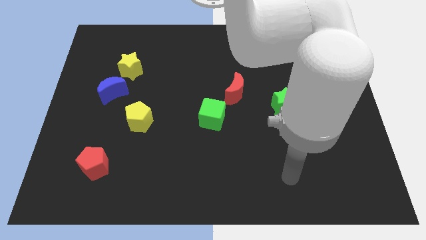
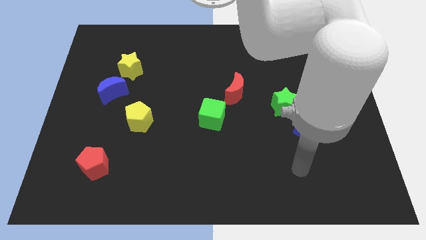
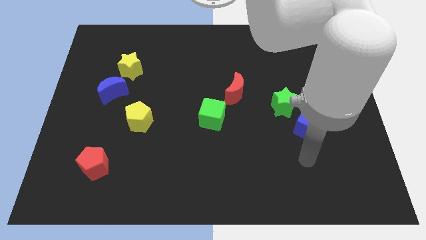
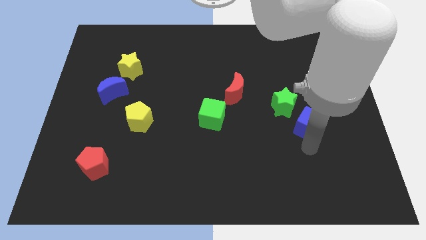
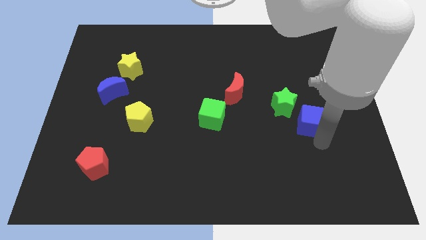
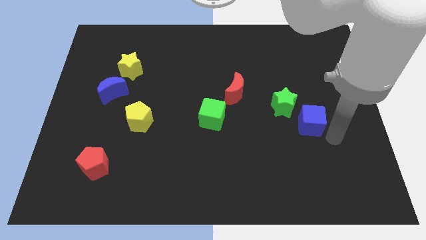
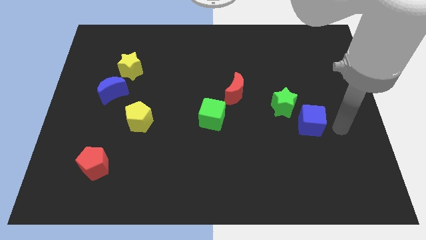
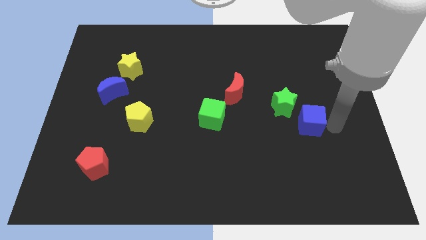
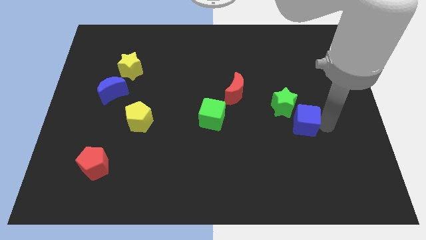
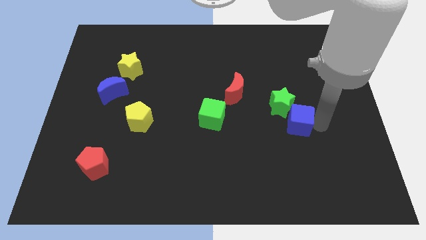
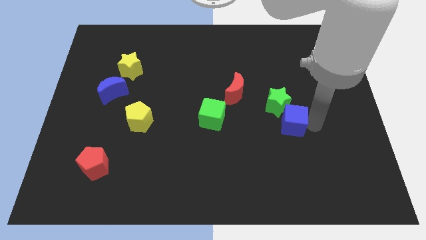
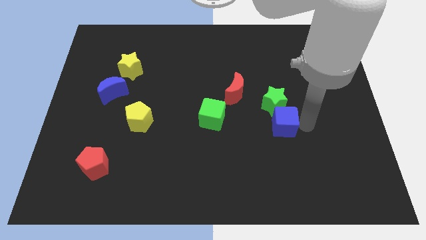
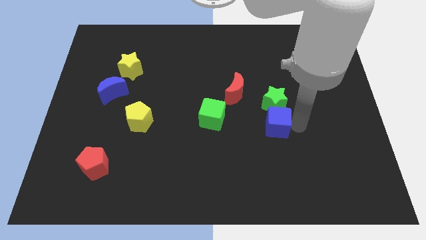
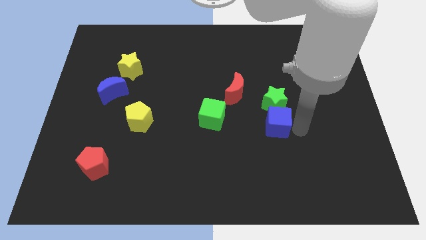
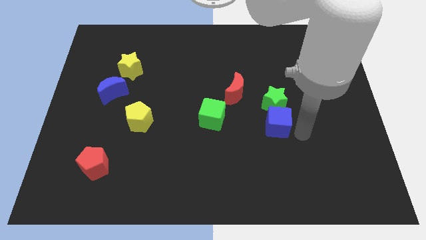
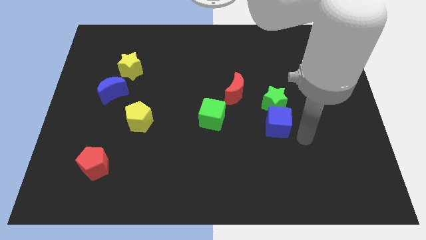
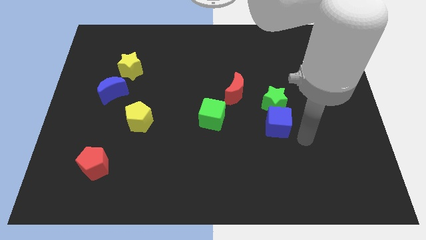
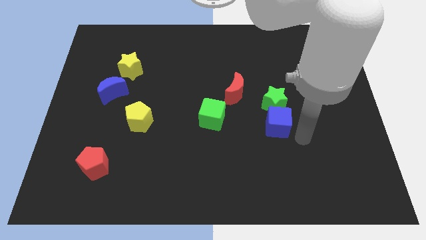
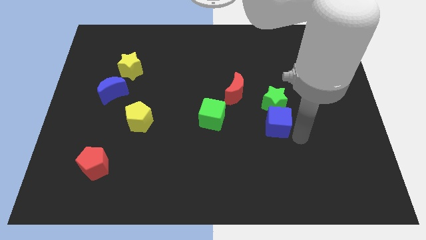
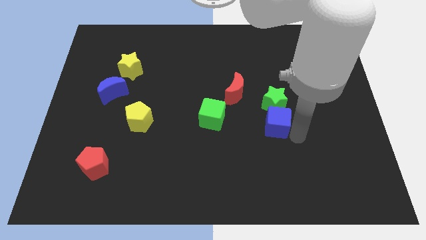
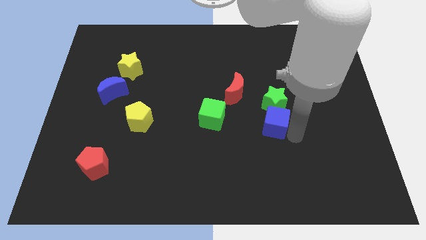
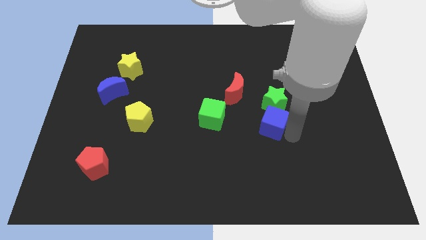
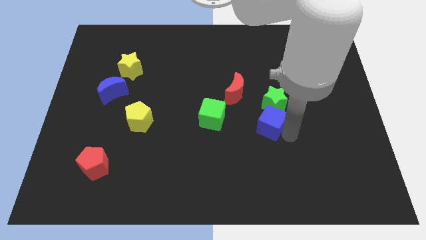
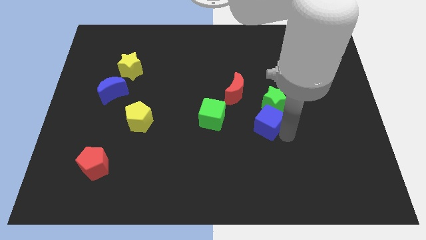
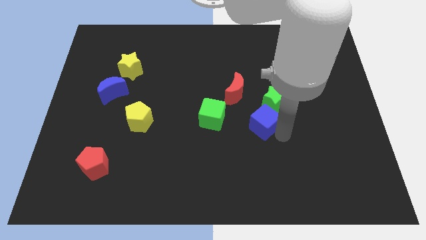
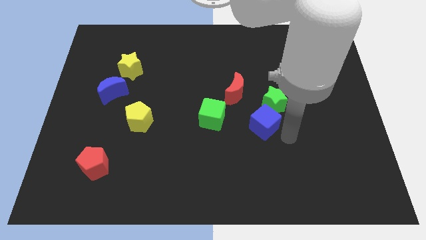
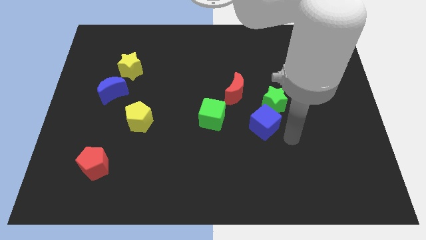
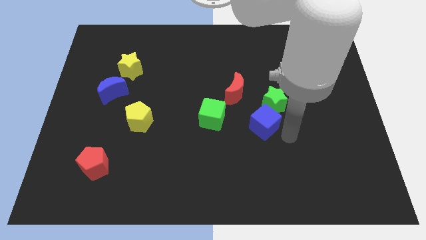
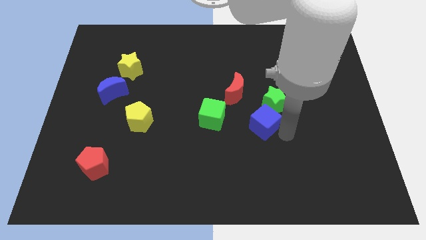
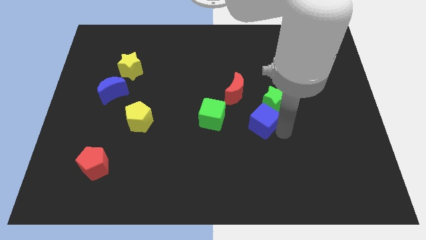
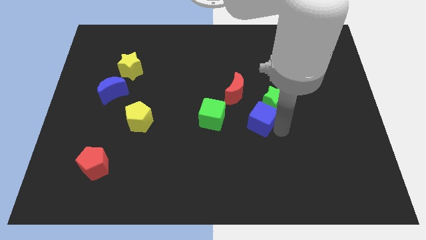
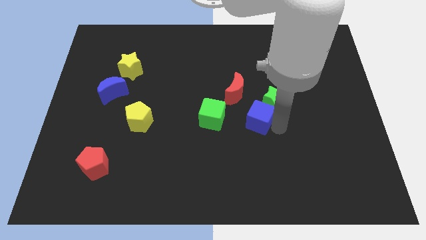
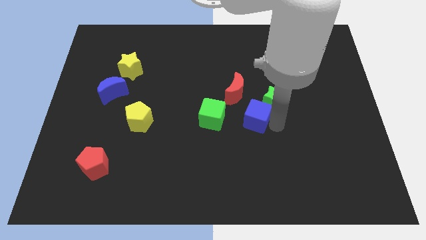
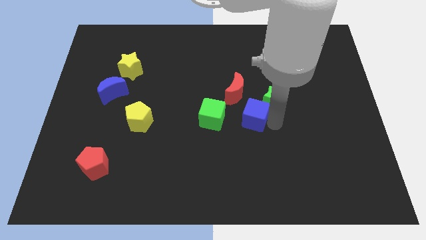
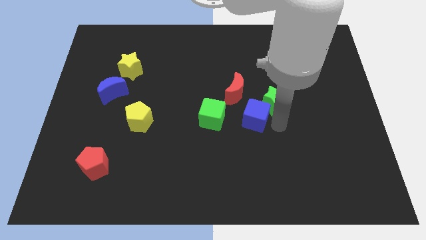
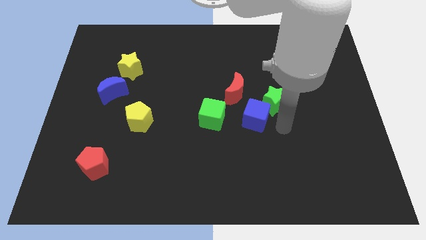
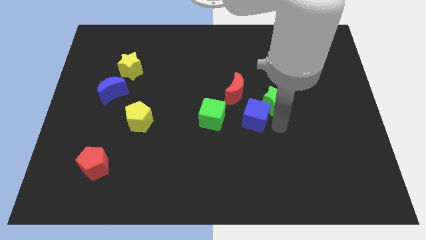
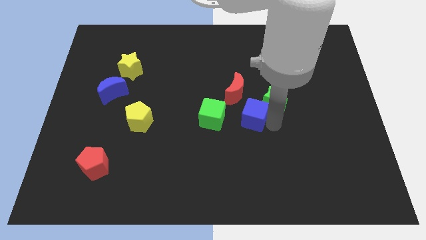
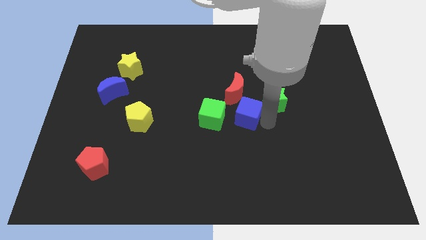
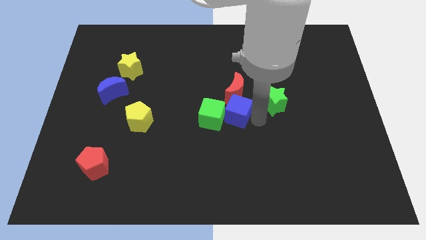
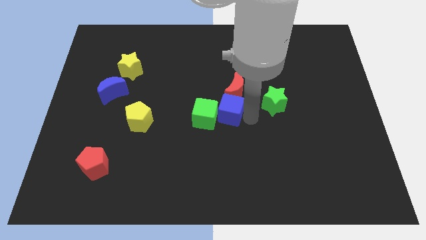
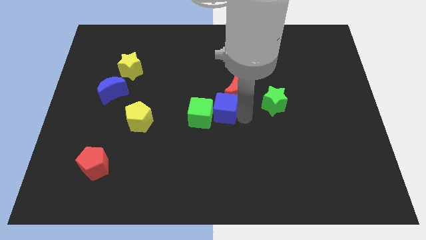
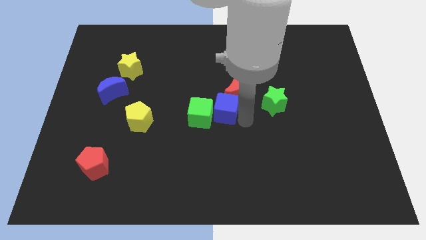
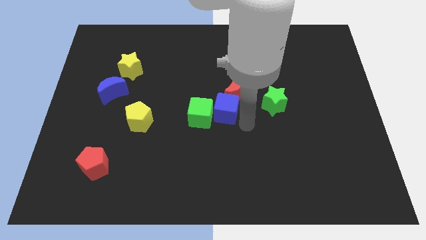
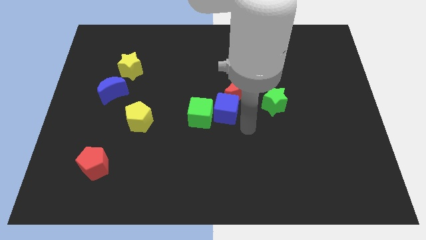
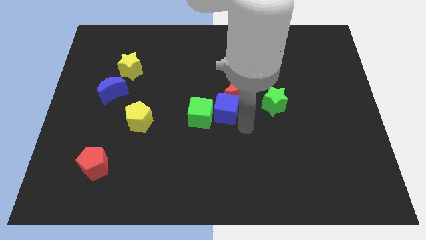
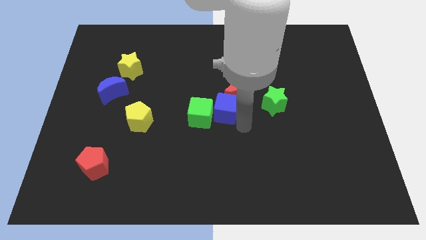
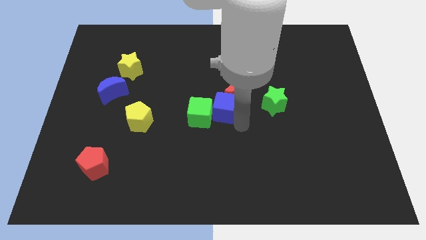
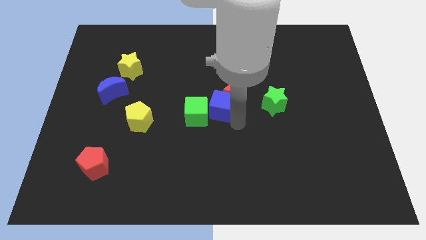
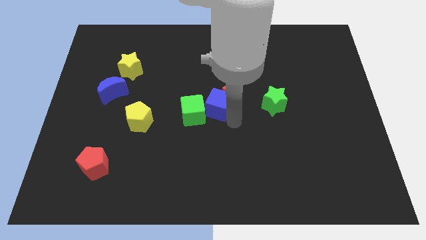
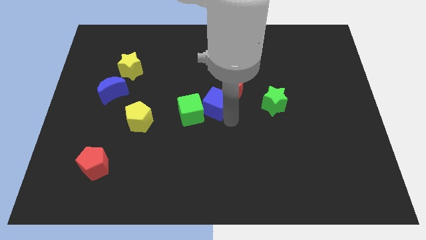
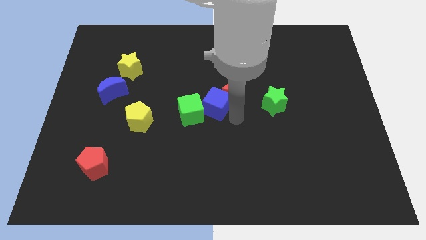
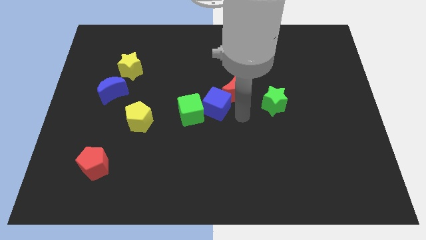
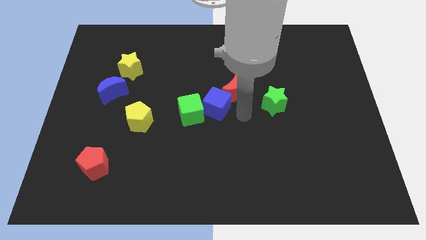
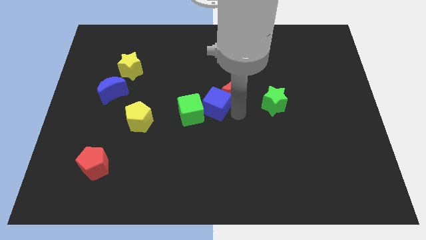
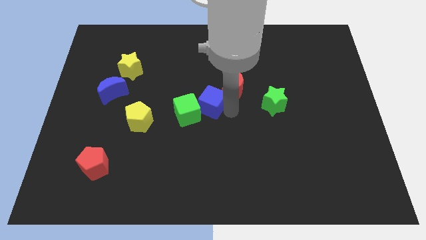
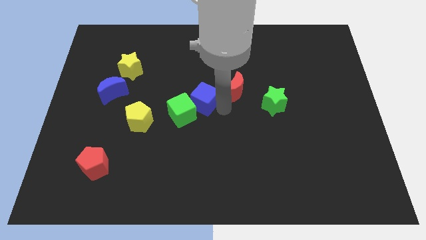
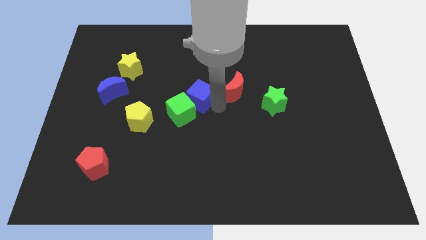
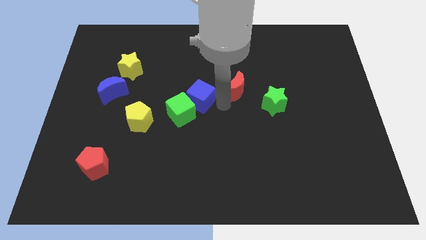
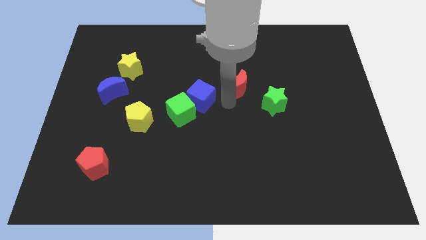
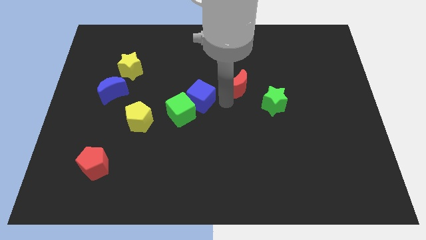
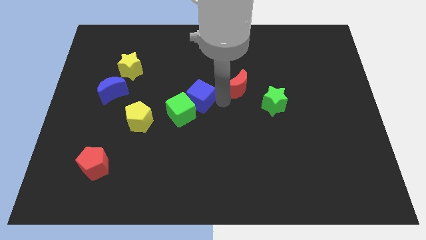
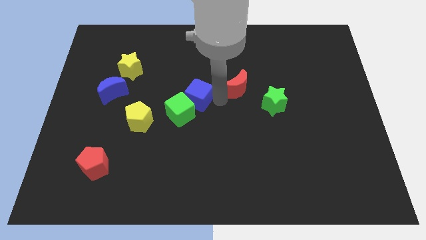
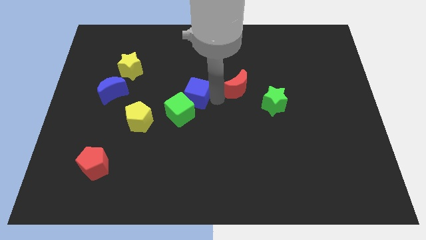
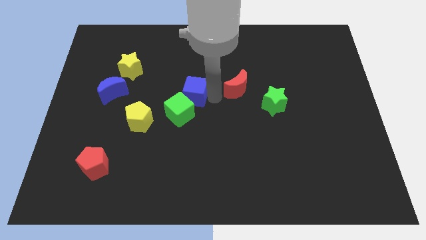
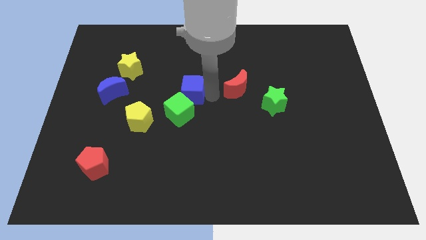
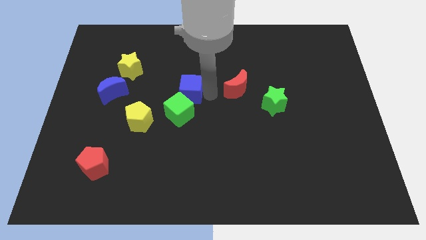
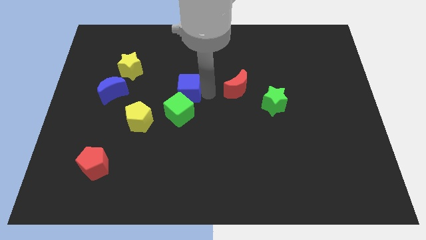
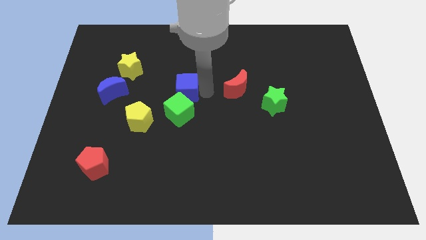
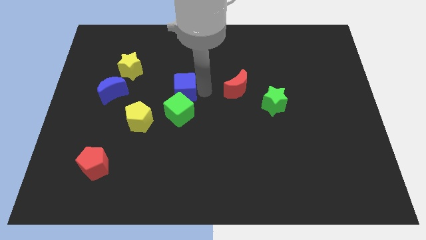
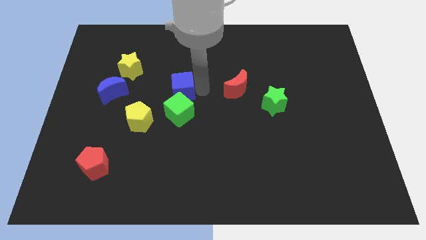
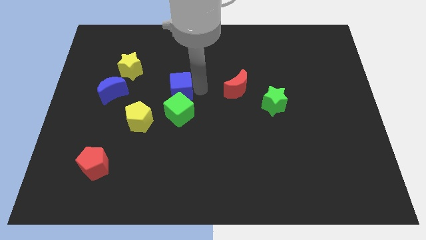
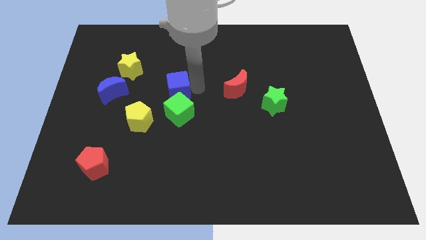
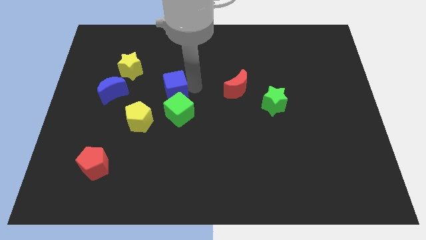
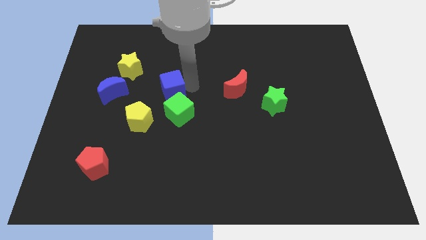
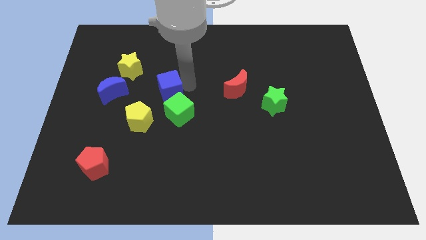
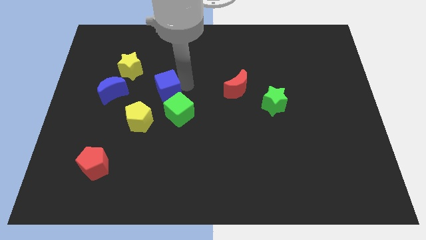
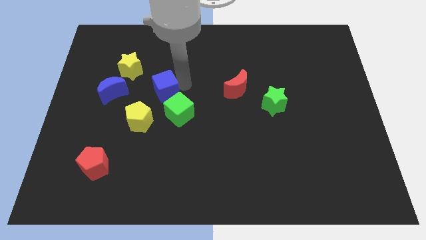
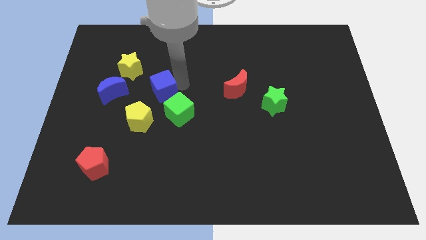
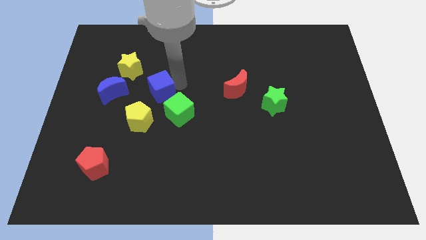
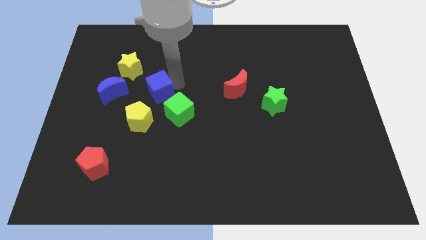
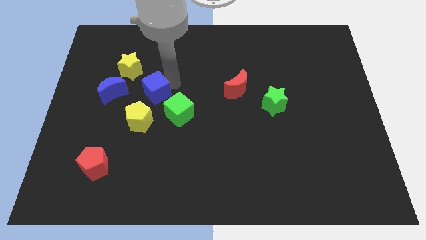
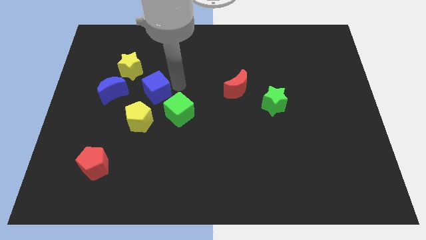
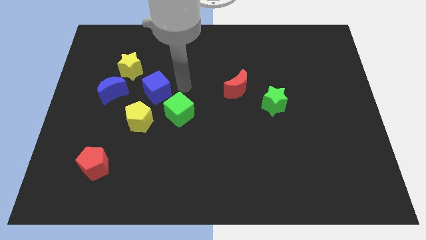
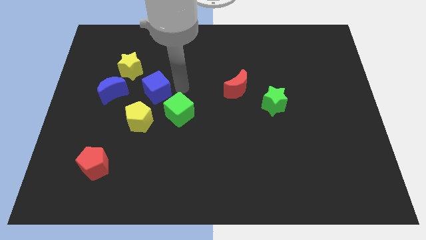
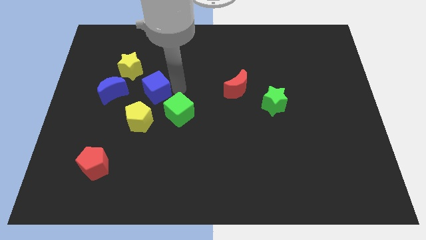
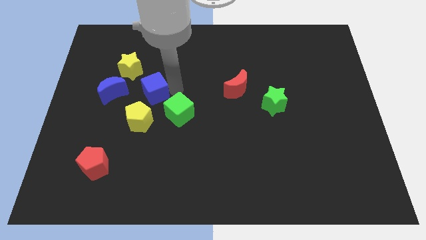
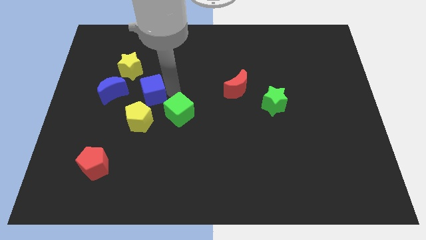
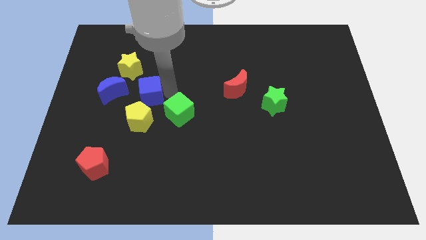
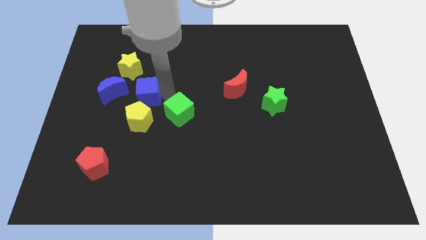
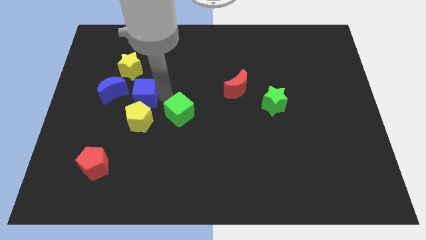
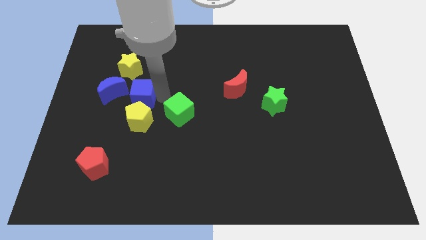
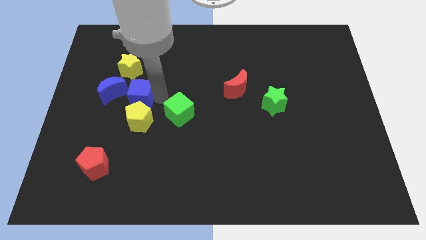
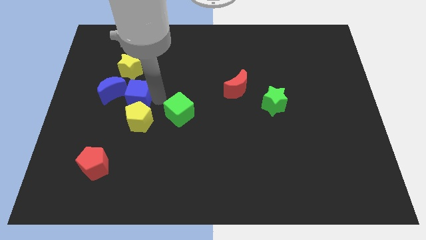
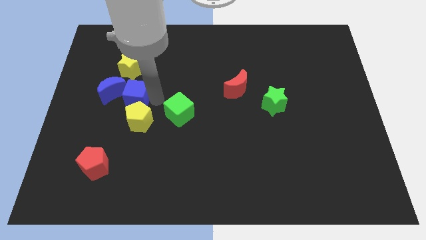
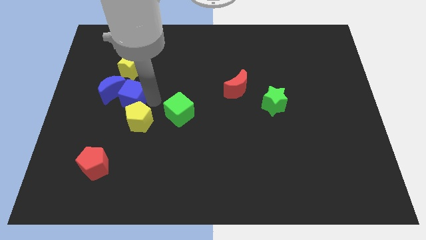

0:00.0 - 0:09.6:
put the blue cube towards the blue moon
